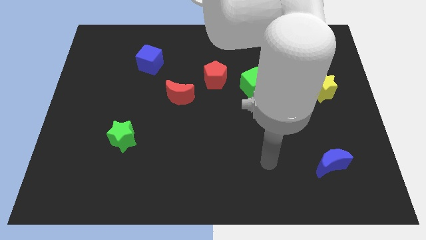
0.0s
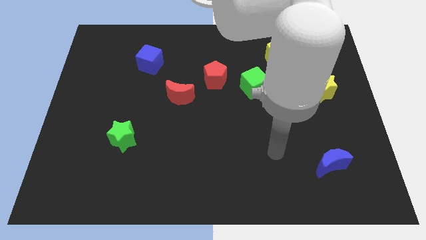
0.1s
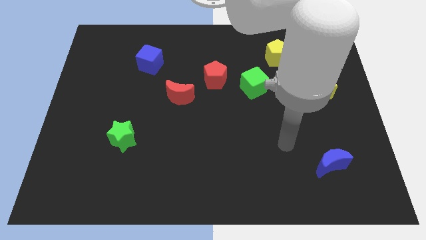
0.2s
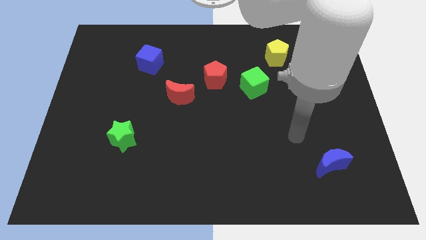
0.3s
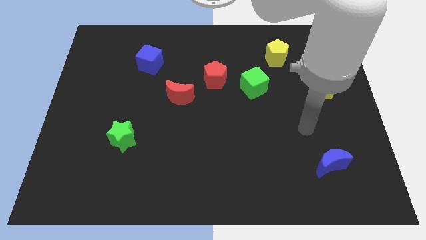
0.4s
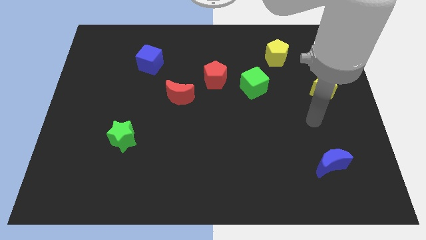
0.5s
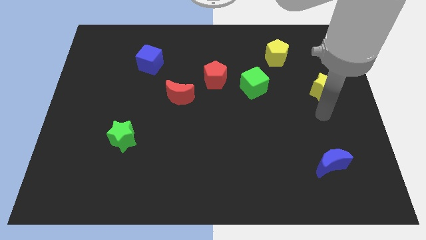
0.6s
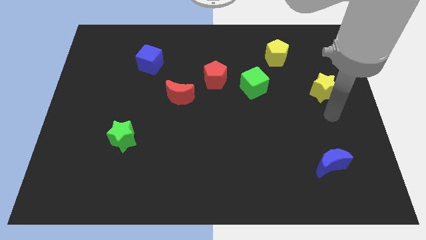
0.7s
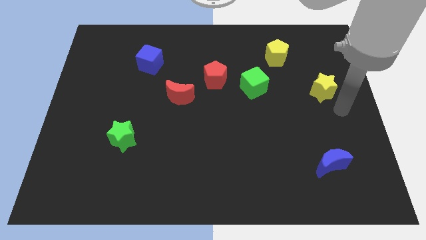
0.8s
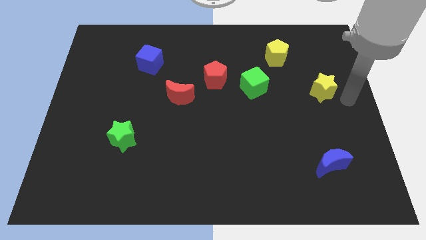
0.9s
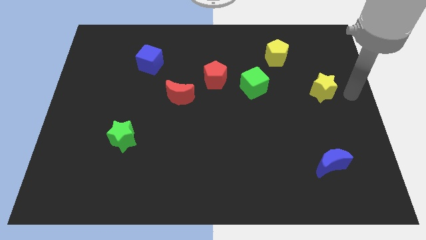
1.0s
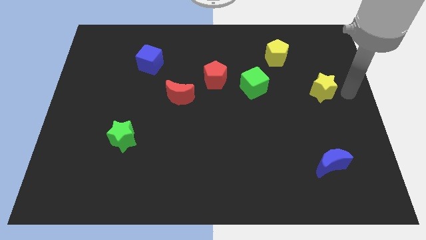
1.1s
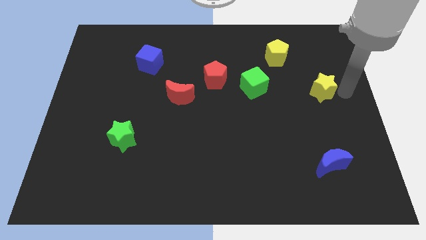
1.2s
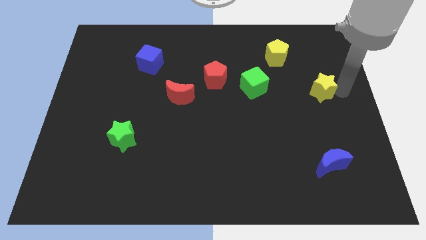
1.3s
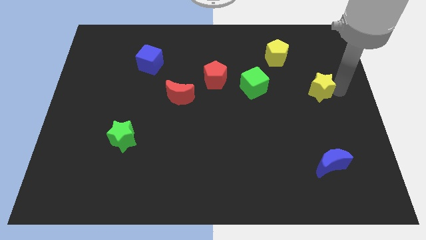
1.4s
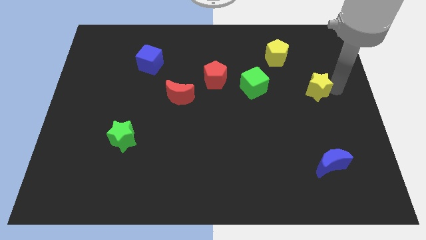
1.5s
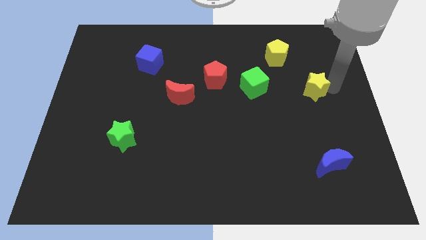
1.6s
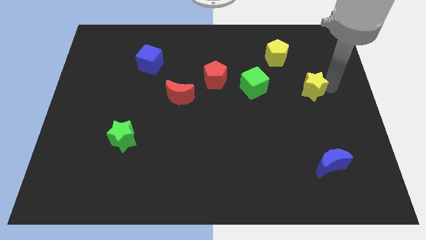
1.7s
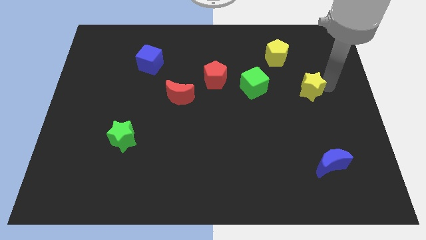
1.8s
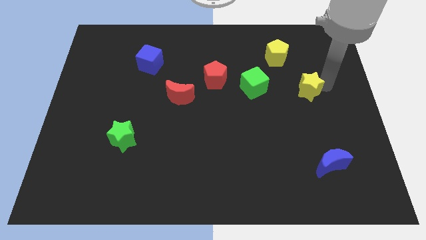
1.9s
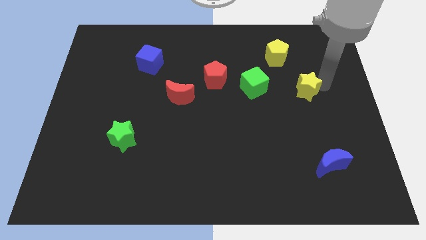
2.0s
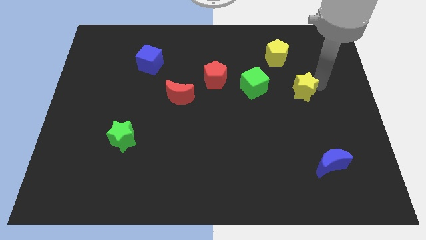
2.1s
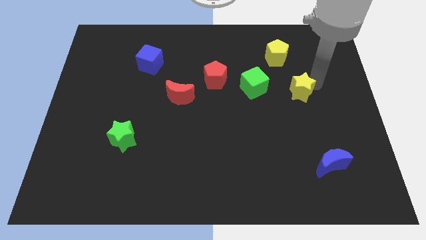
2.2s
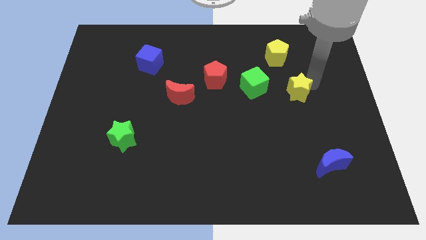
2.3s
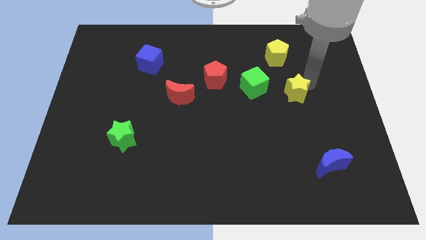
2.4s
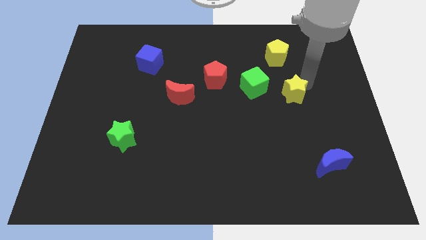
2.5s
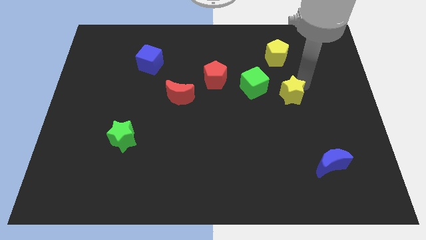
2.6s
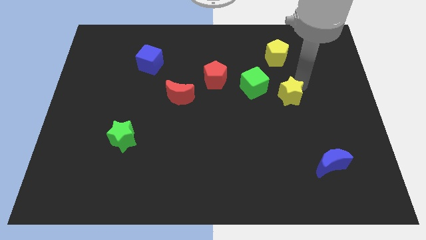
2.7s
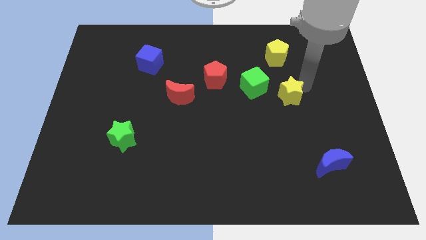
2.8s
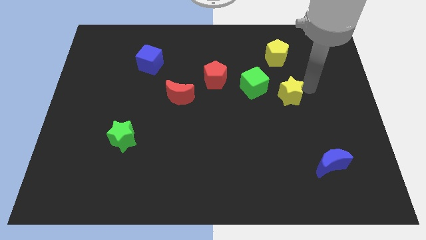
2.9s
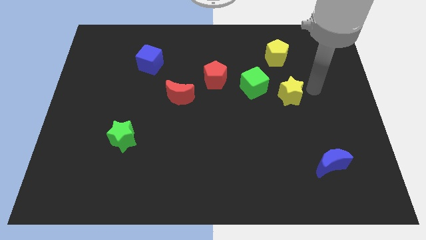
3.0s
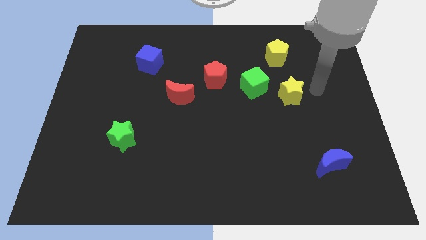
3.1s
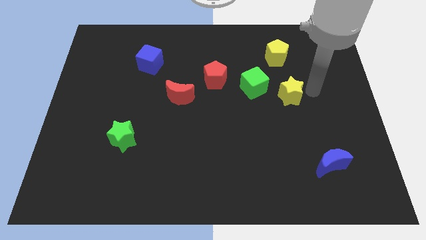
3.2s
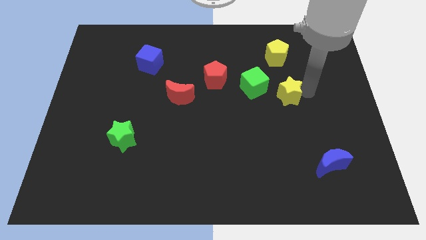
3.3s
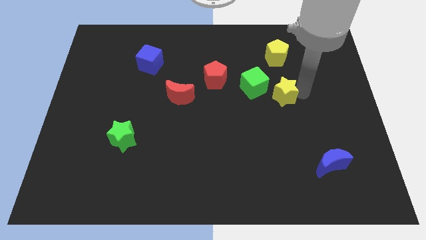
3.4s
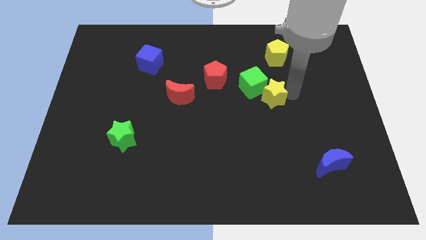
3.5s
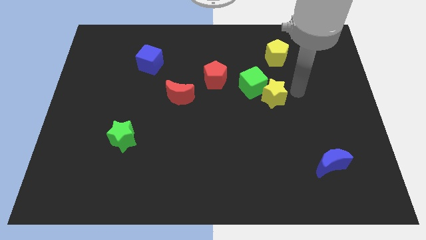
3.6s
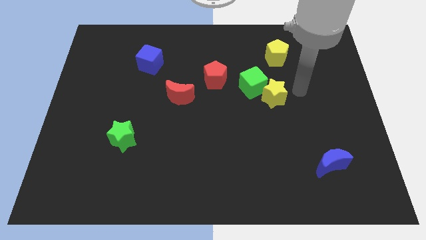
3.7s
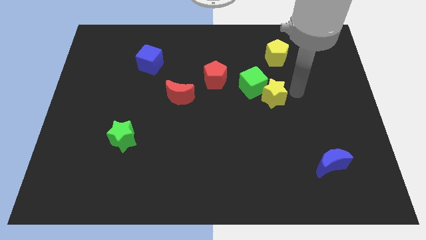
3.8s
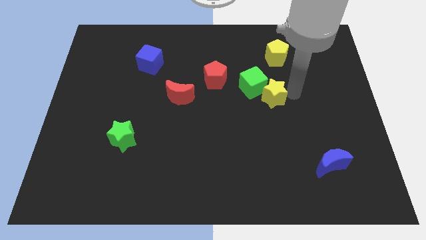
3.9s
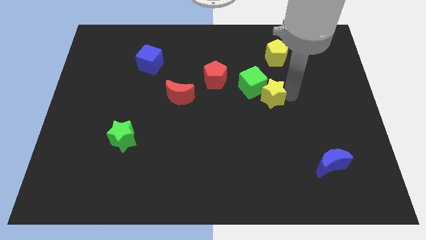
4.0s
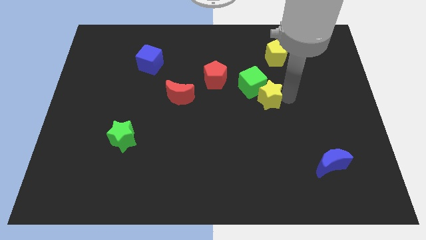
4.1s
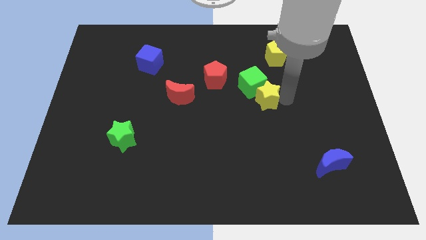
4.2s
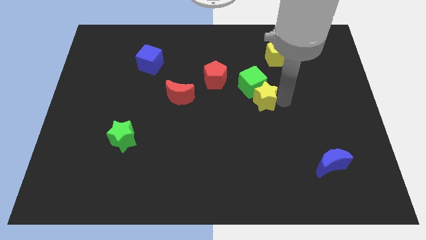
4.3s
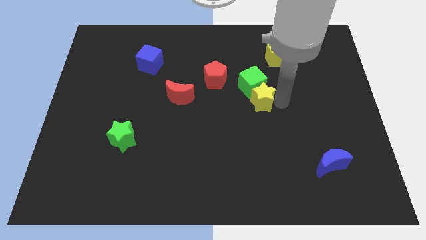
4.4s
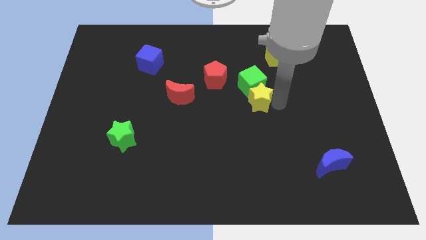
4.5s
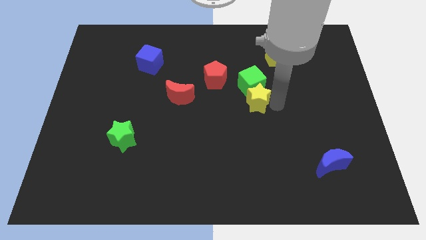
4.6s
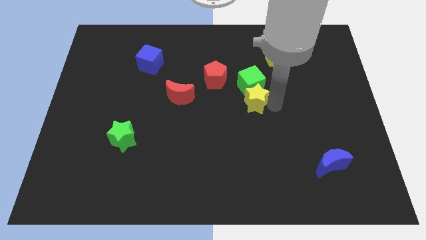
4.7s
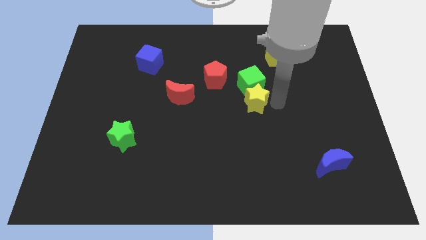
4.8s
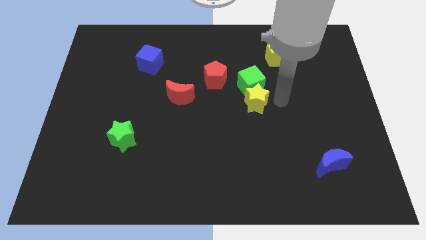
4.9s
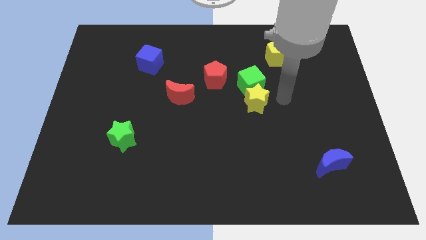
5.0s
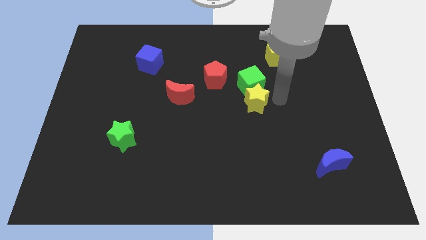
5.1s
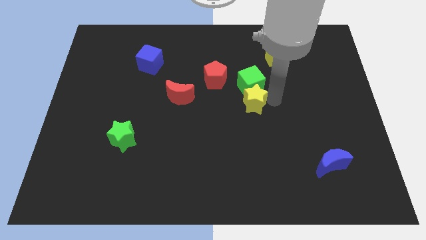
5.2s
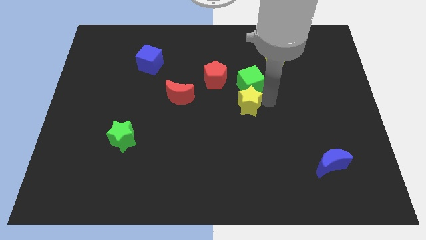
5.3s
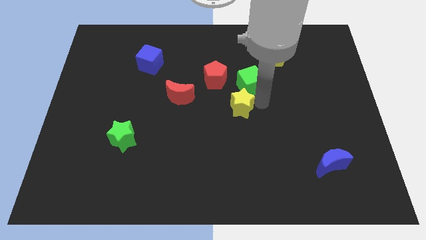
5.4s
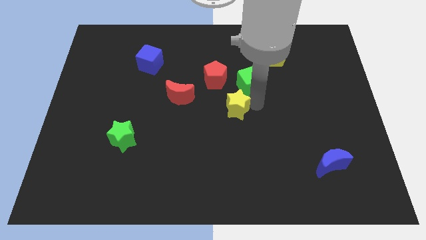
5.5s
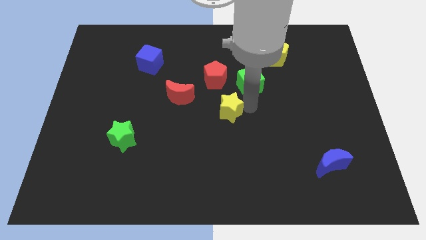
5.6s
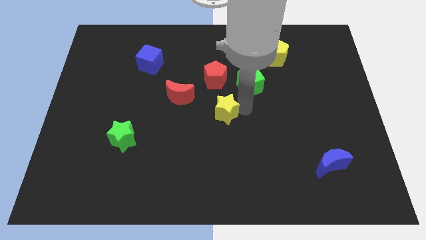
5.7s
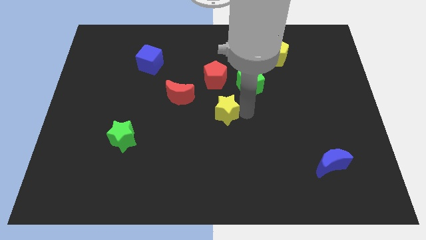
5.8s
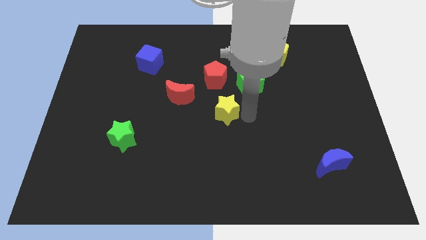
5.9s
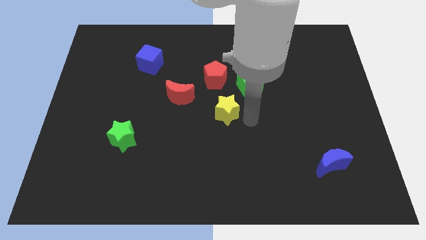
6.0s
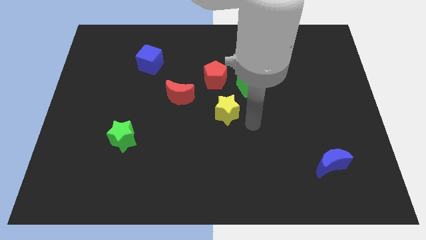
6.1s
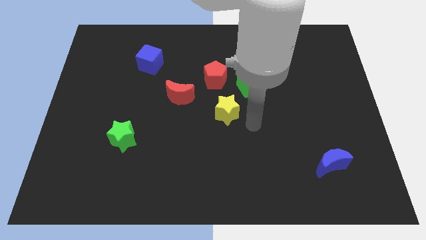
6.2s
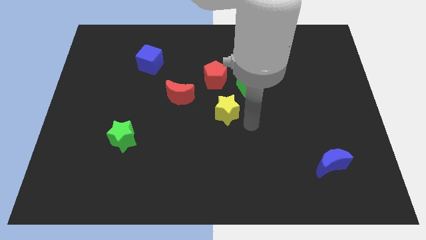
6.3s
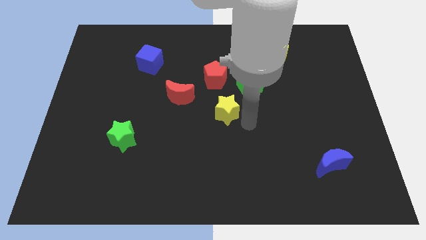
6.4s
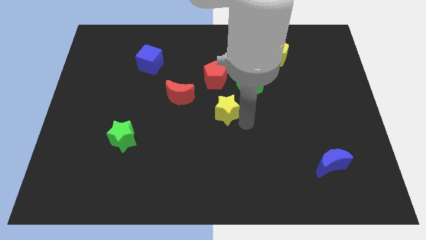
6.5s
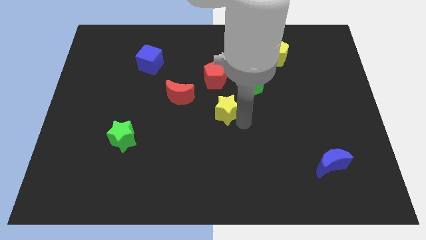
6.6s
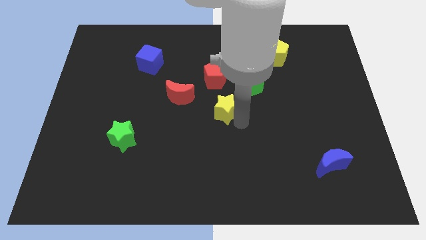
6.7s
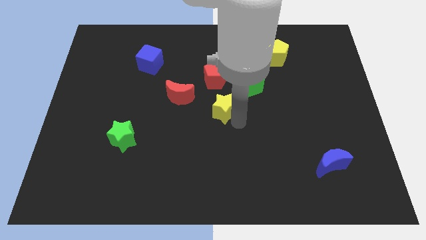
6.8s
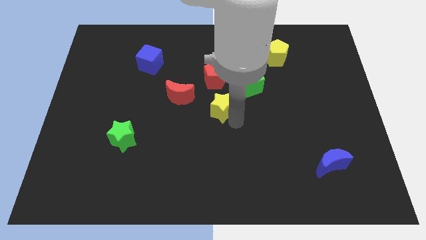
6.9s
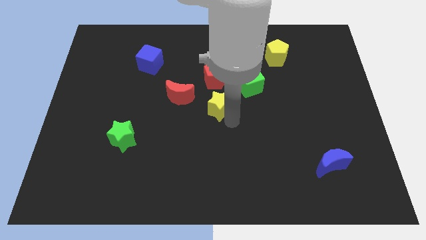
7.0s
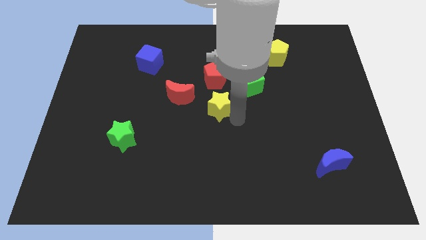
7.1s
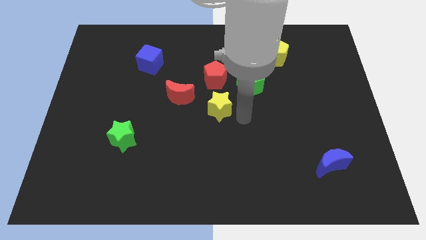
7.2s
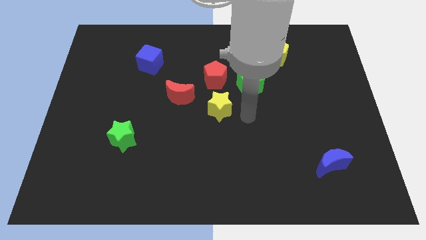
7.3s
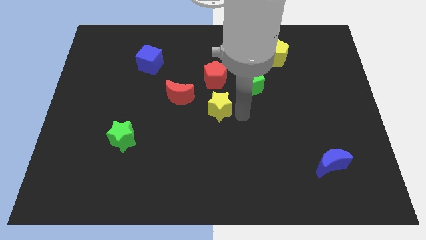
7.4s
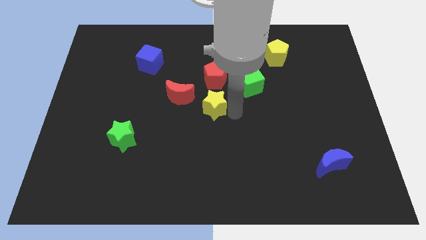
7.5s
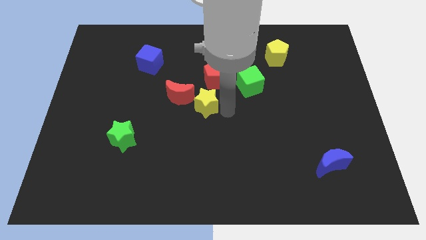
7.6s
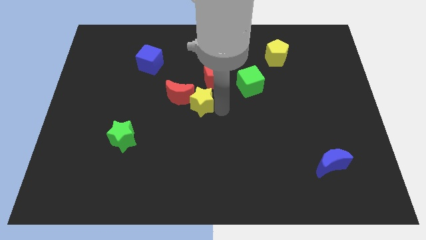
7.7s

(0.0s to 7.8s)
move the yellow star towards the red moon

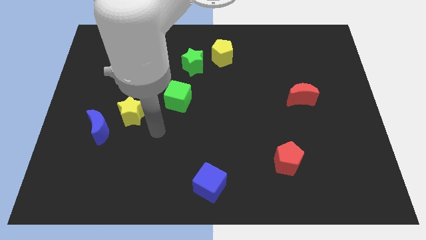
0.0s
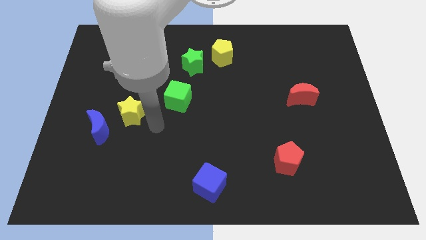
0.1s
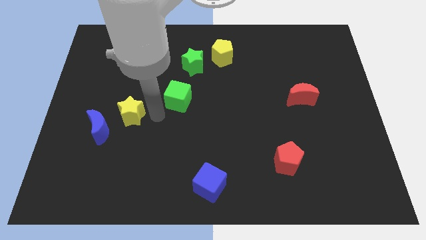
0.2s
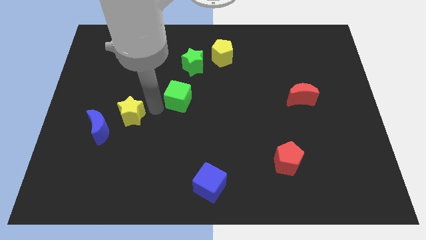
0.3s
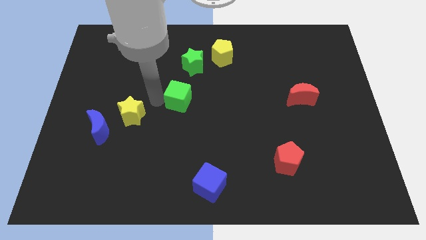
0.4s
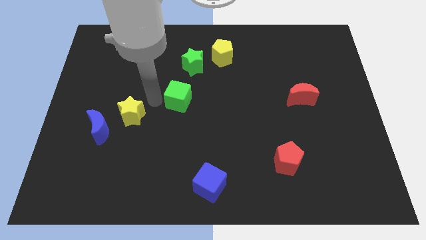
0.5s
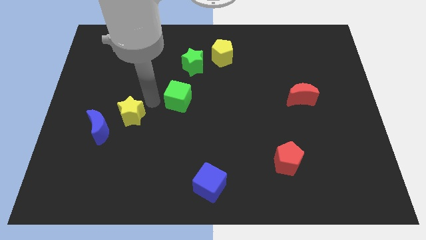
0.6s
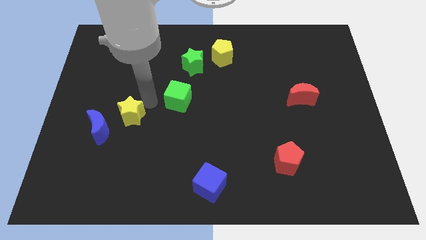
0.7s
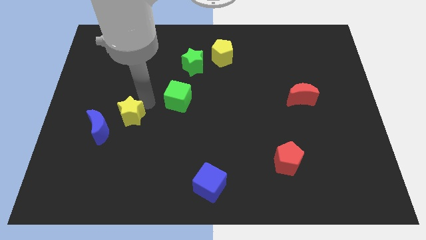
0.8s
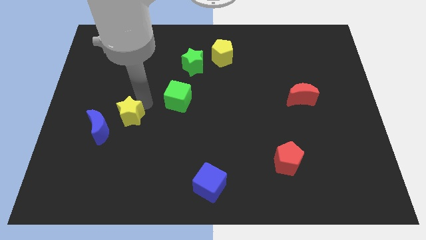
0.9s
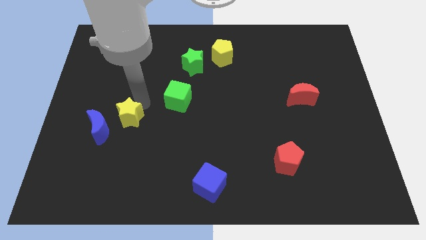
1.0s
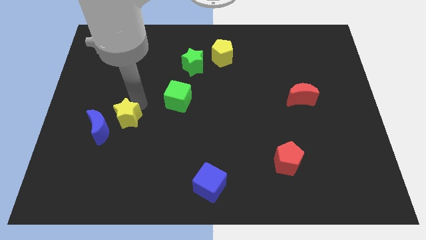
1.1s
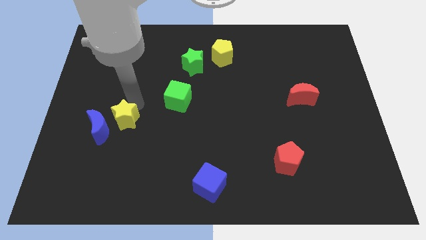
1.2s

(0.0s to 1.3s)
slide the yellow star close to the blue moon
